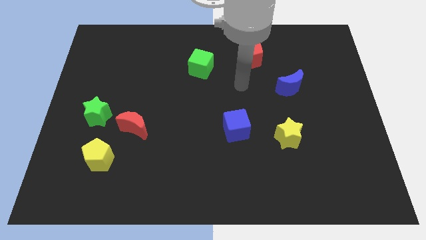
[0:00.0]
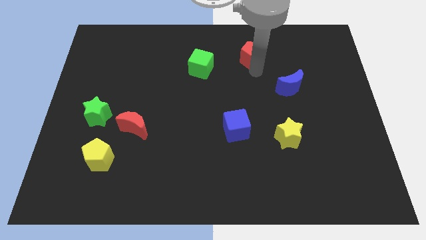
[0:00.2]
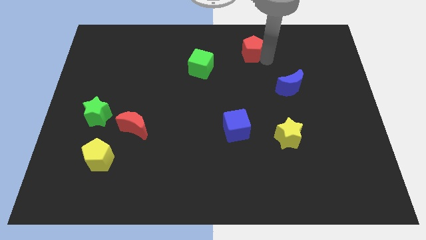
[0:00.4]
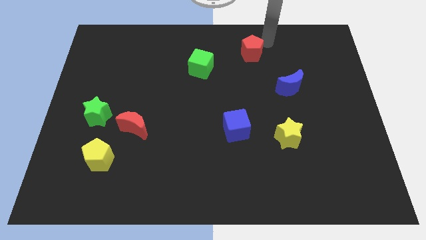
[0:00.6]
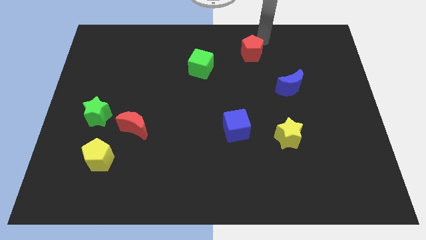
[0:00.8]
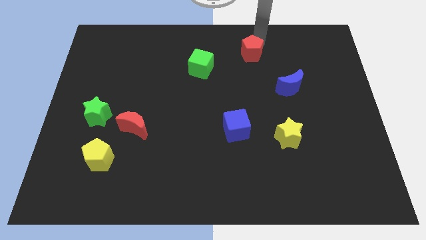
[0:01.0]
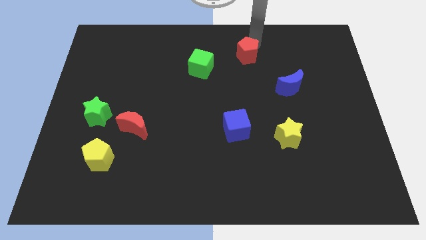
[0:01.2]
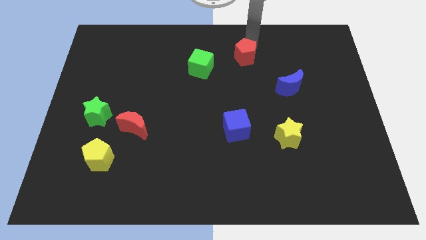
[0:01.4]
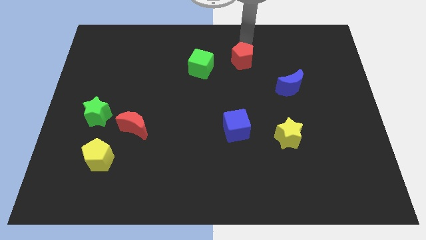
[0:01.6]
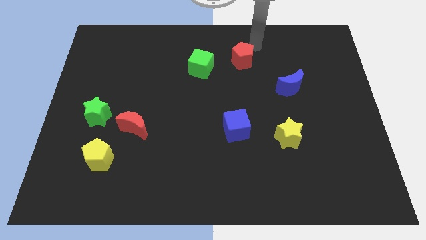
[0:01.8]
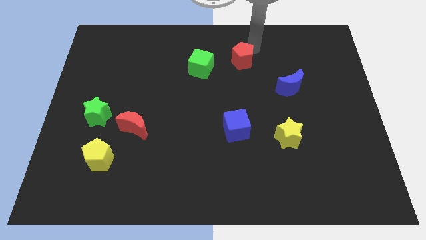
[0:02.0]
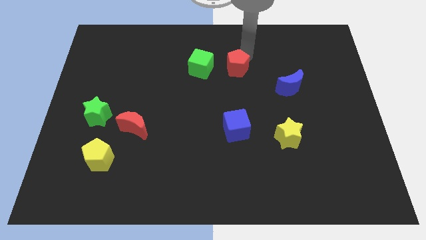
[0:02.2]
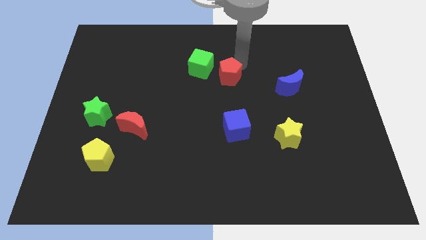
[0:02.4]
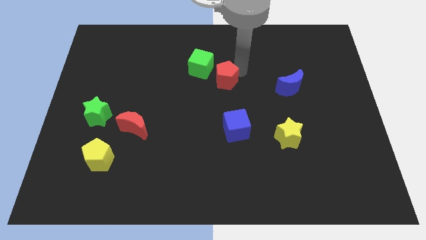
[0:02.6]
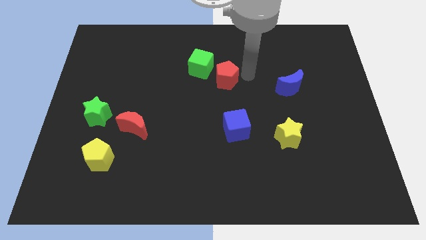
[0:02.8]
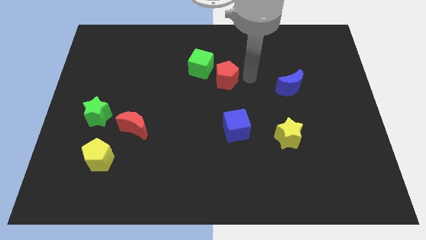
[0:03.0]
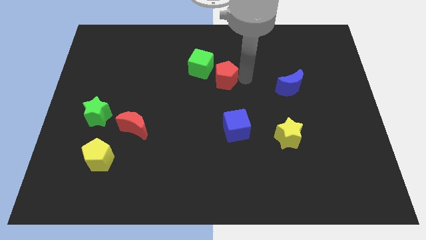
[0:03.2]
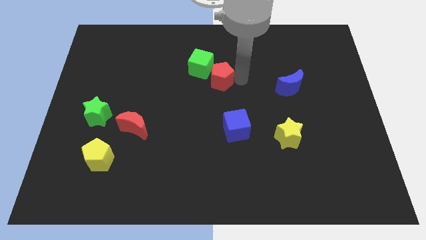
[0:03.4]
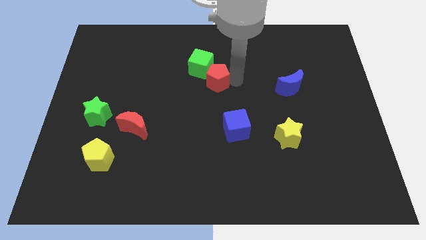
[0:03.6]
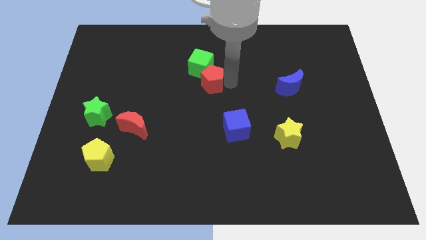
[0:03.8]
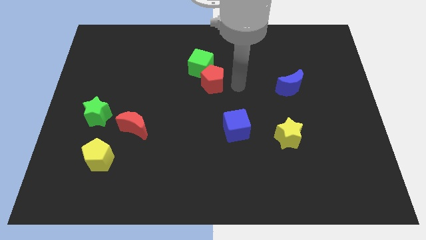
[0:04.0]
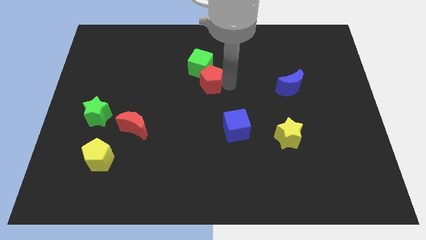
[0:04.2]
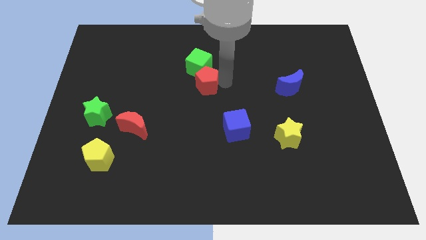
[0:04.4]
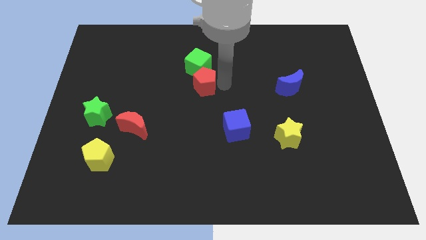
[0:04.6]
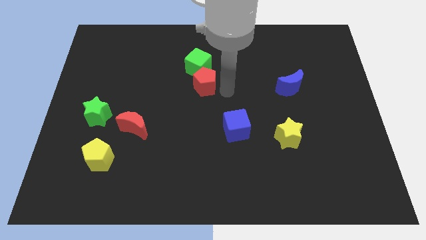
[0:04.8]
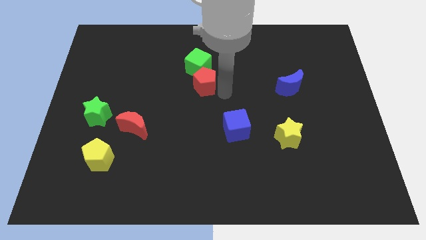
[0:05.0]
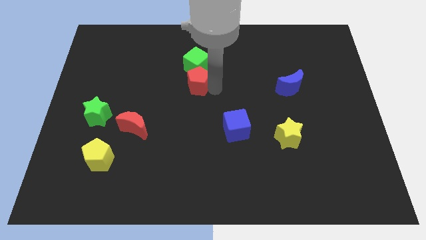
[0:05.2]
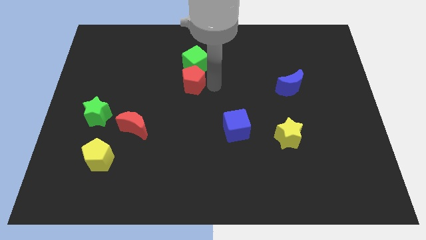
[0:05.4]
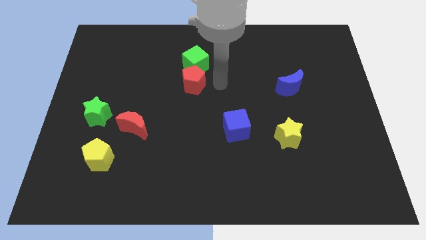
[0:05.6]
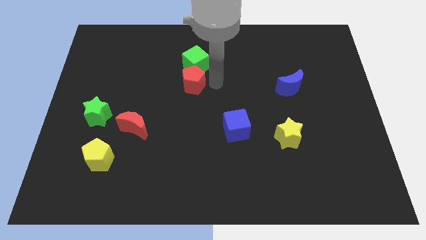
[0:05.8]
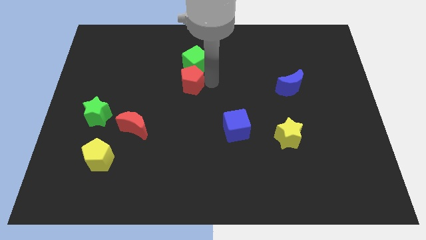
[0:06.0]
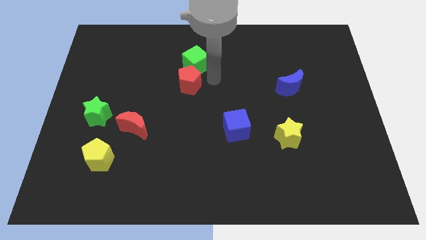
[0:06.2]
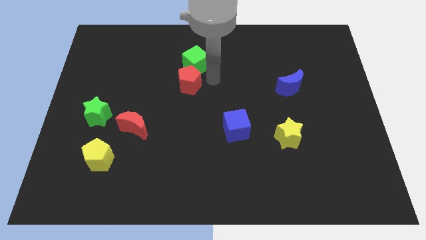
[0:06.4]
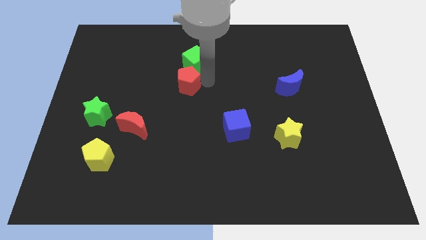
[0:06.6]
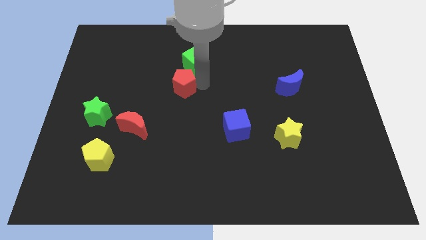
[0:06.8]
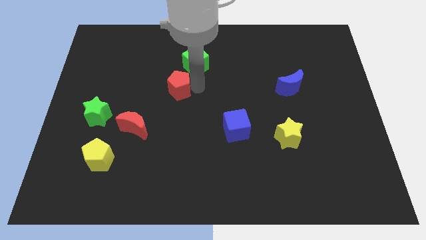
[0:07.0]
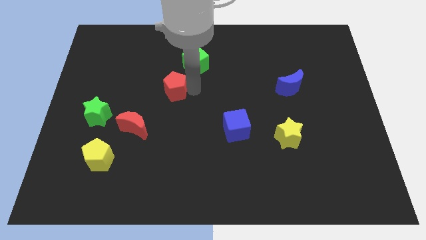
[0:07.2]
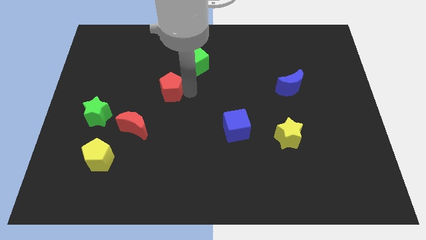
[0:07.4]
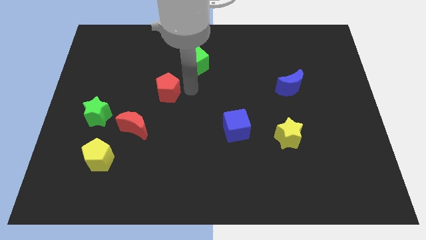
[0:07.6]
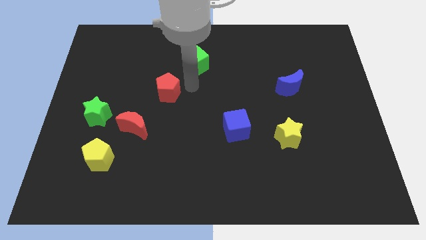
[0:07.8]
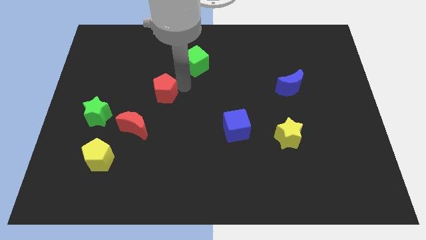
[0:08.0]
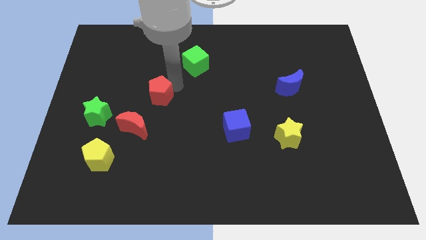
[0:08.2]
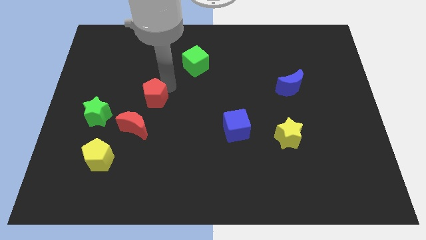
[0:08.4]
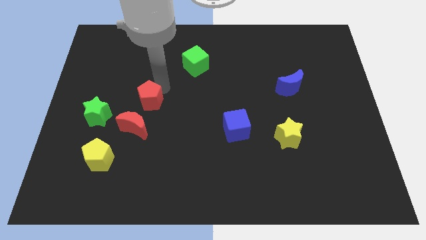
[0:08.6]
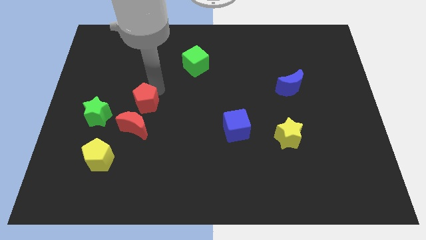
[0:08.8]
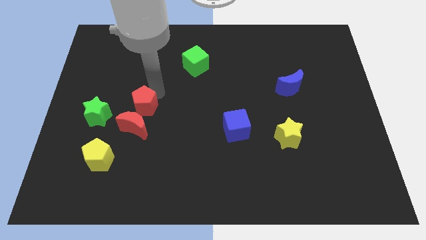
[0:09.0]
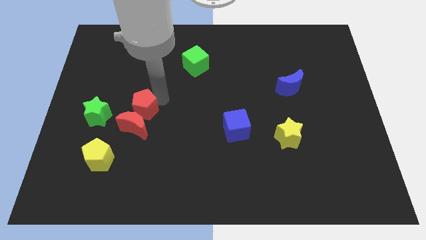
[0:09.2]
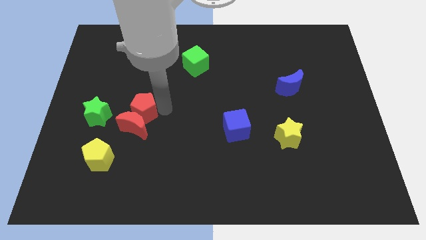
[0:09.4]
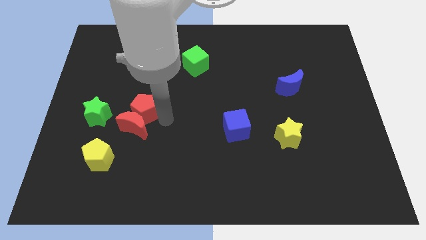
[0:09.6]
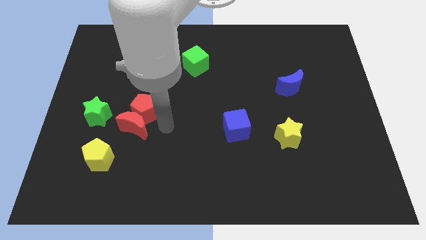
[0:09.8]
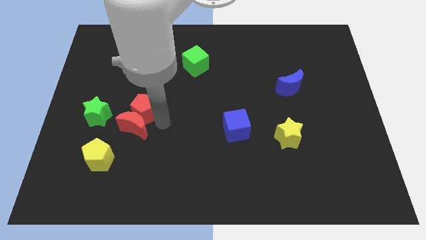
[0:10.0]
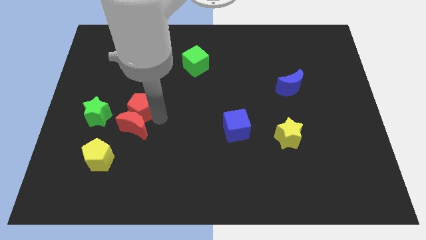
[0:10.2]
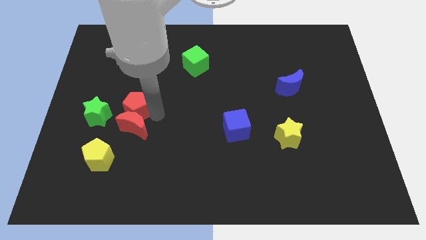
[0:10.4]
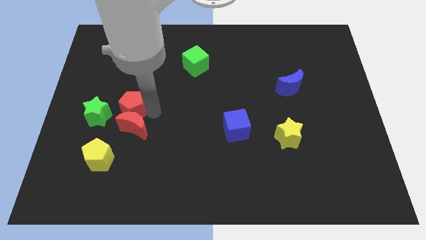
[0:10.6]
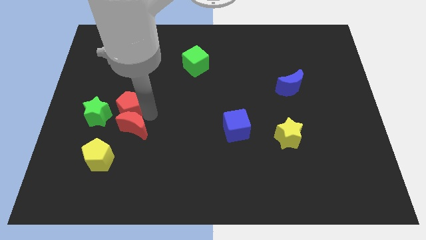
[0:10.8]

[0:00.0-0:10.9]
move the red pentagon to the top side of the yellow pentagon

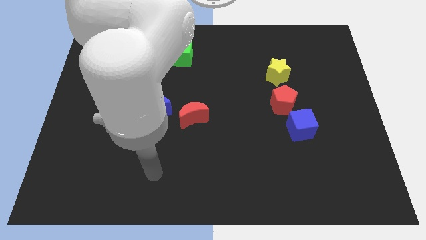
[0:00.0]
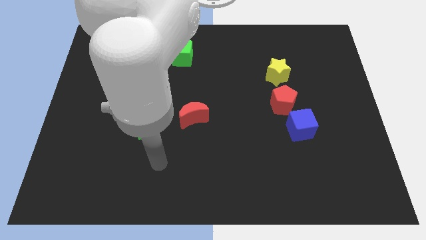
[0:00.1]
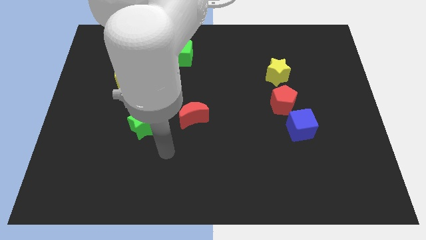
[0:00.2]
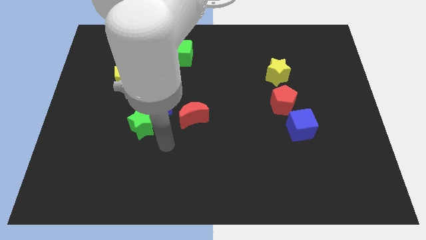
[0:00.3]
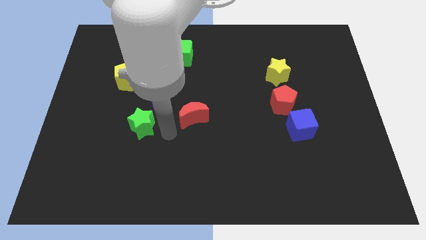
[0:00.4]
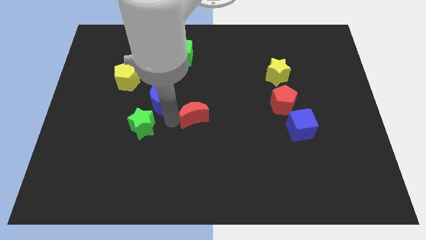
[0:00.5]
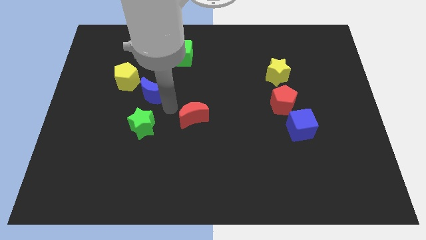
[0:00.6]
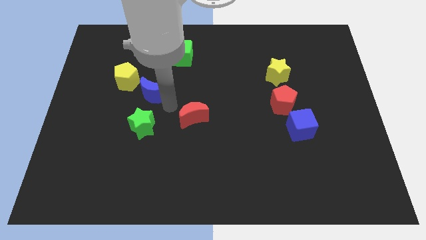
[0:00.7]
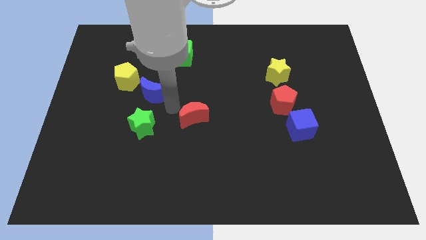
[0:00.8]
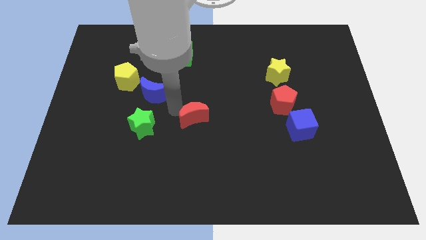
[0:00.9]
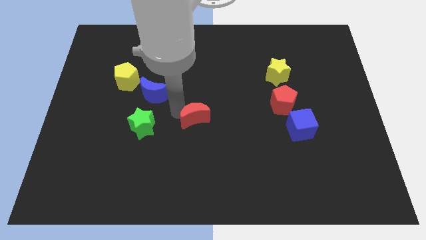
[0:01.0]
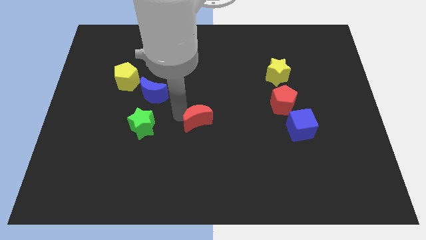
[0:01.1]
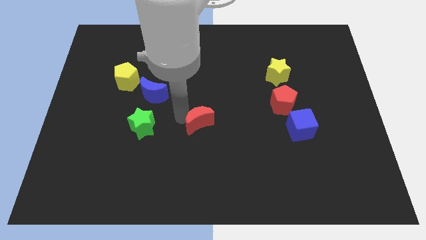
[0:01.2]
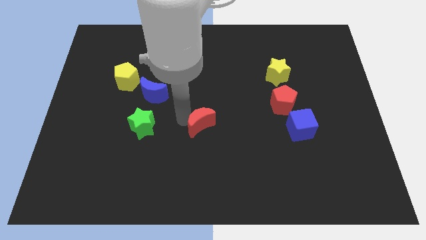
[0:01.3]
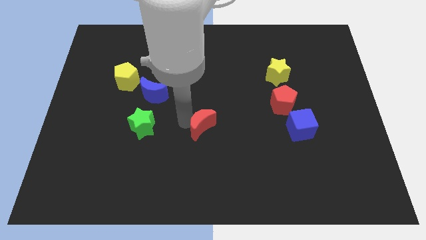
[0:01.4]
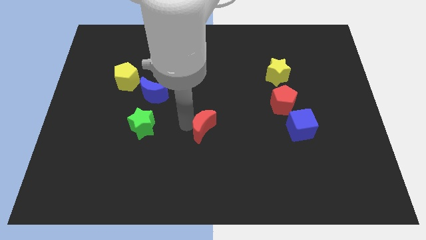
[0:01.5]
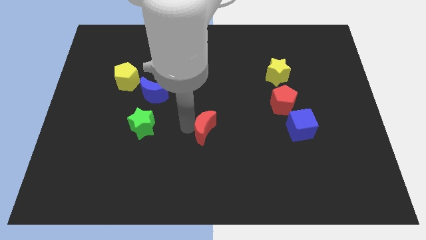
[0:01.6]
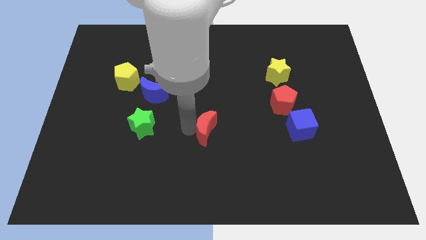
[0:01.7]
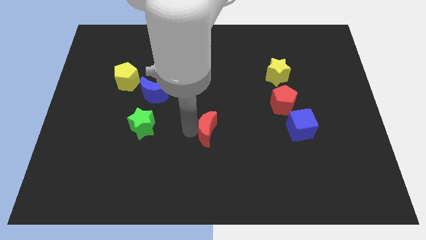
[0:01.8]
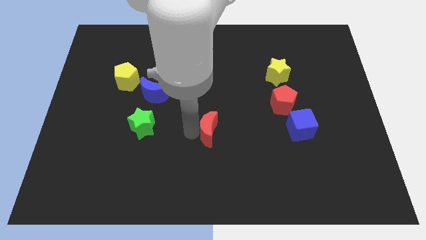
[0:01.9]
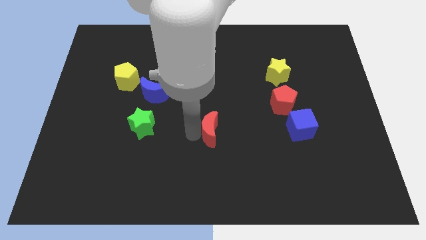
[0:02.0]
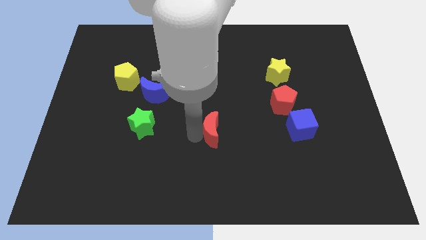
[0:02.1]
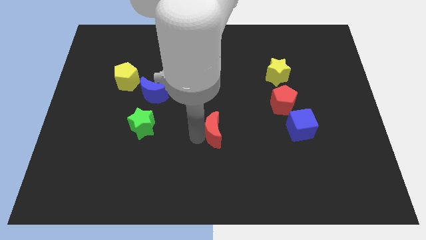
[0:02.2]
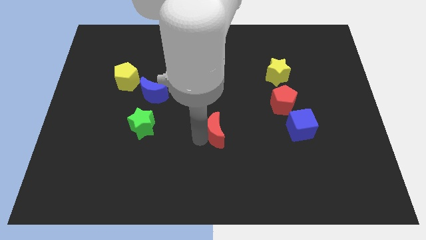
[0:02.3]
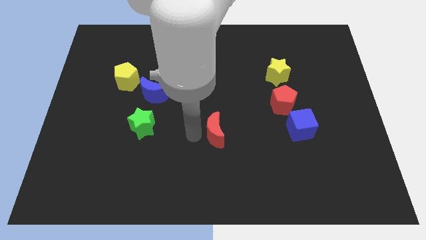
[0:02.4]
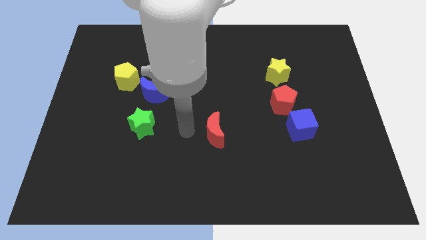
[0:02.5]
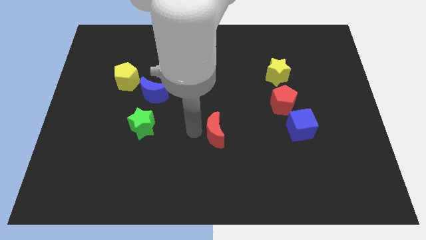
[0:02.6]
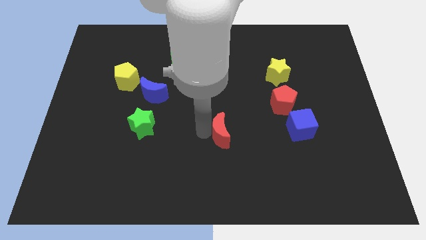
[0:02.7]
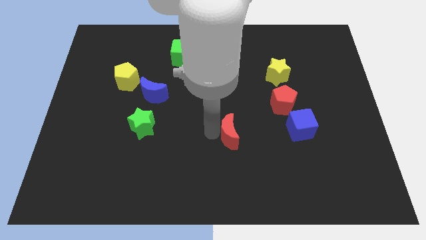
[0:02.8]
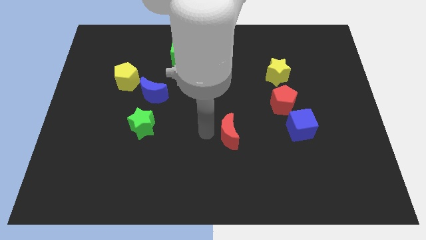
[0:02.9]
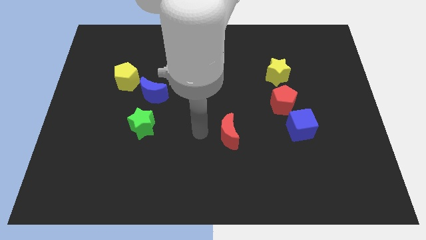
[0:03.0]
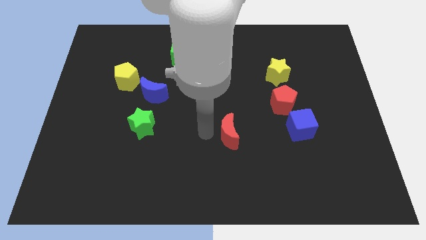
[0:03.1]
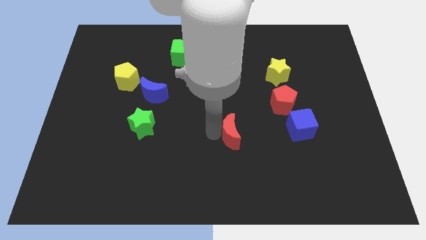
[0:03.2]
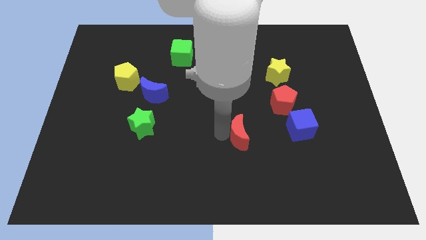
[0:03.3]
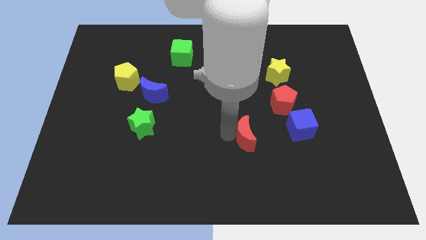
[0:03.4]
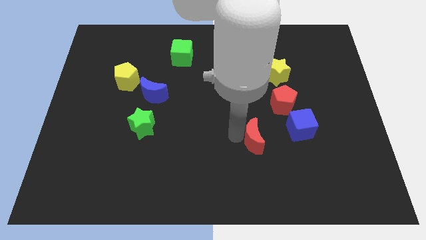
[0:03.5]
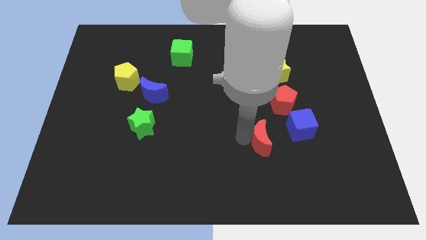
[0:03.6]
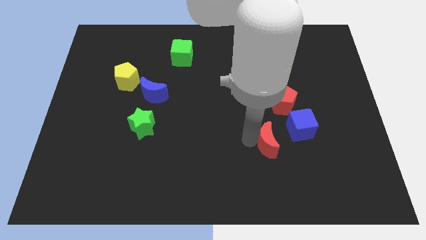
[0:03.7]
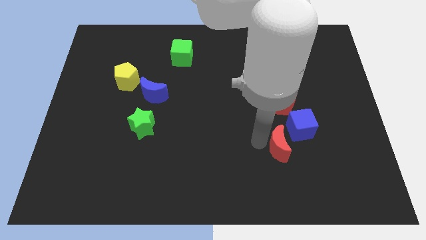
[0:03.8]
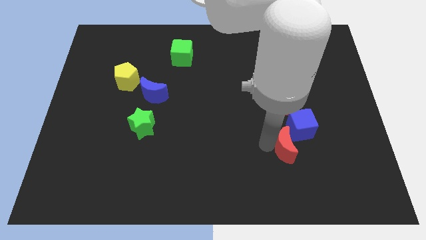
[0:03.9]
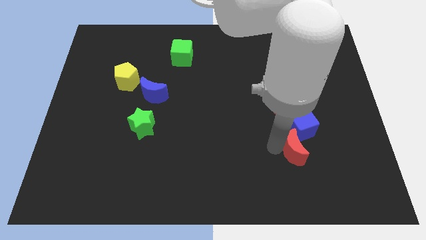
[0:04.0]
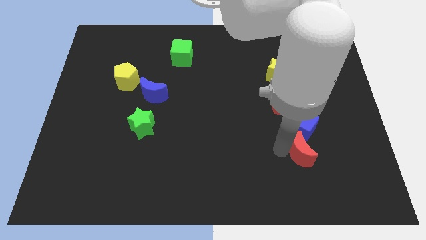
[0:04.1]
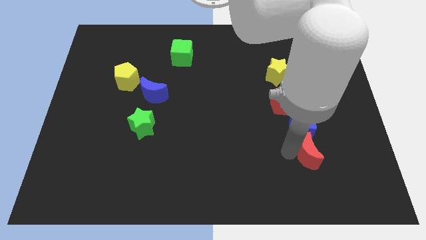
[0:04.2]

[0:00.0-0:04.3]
put the red moon diagonally down and to the right of the blue cube
